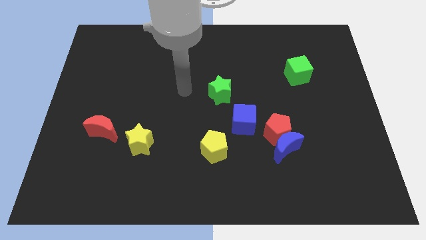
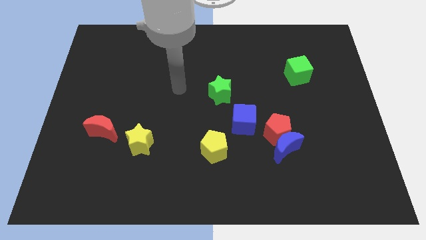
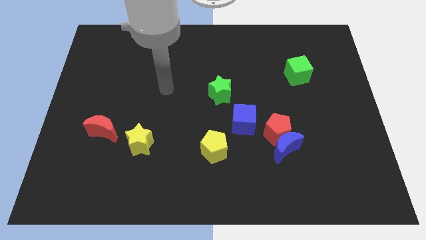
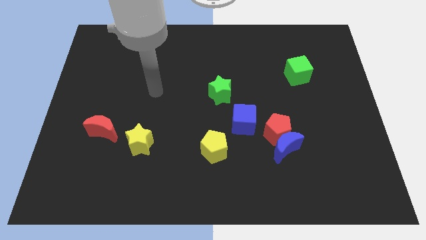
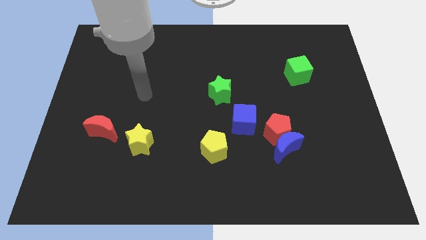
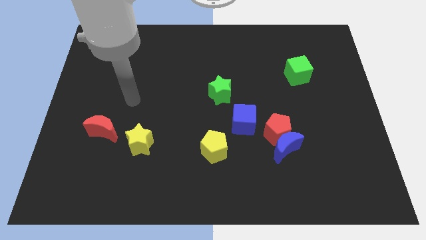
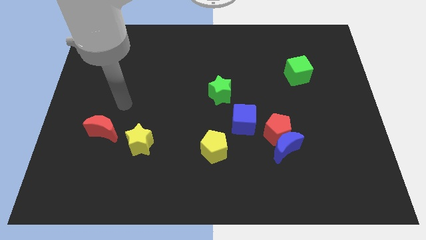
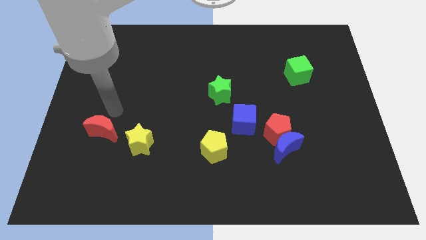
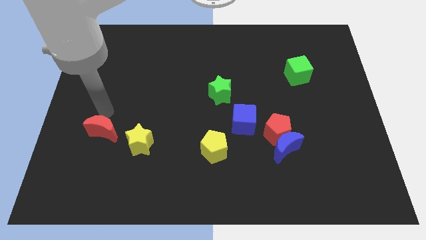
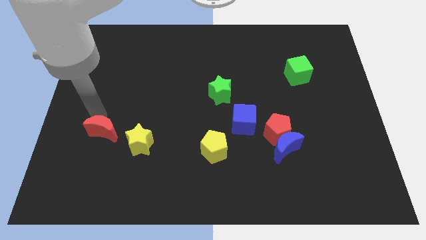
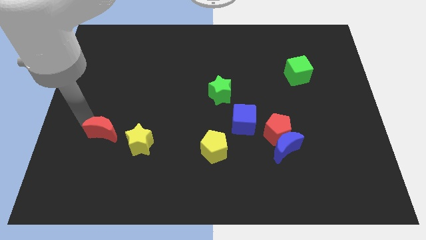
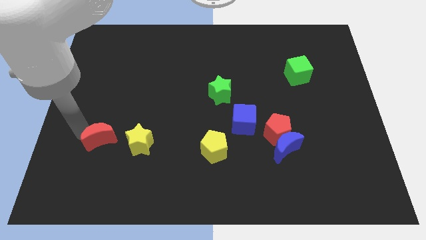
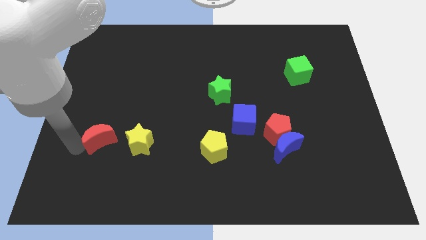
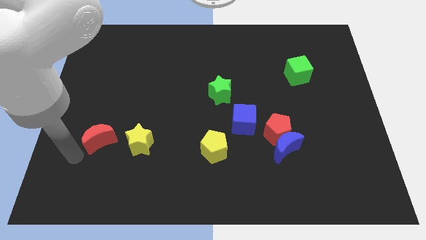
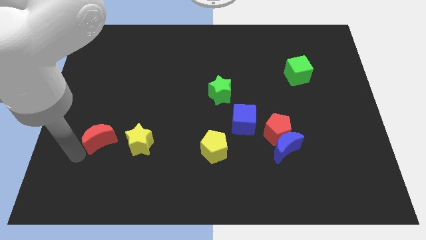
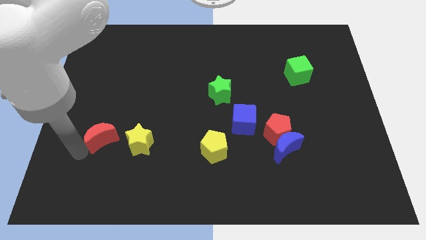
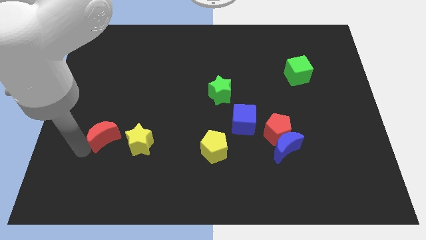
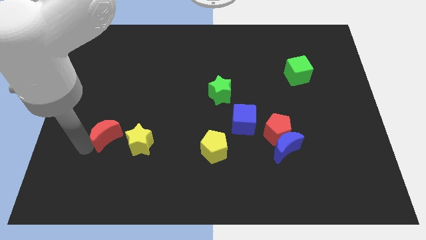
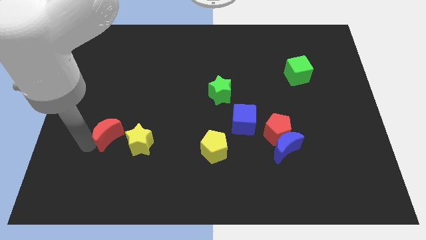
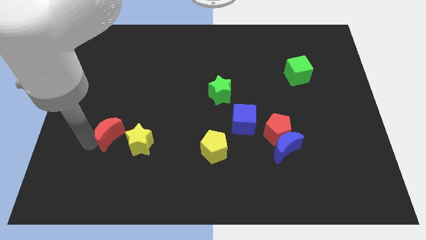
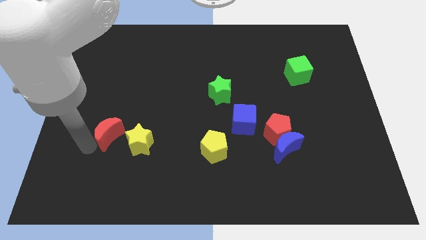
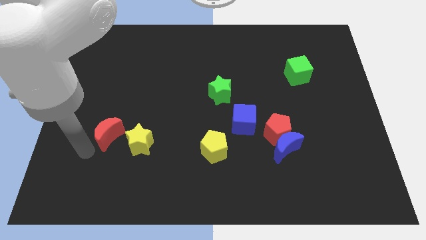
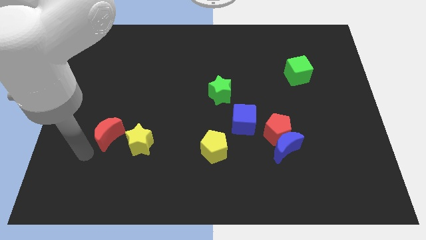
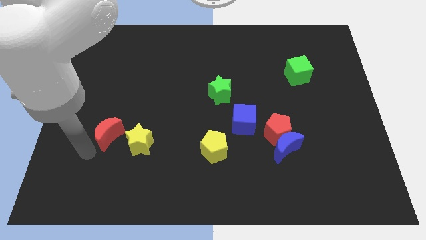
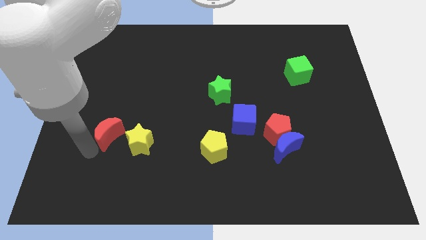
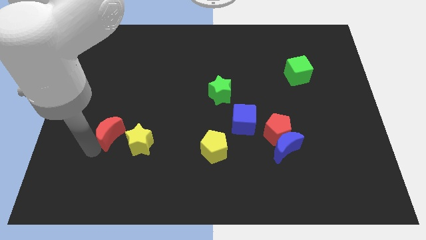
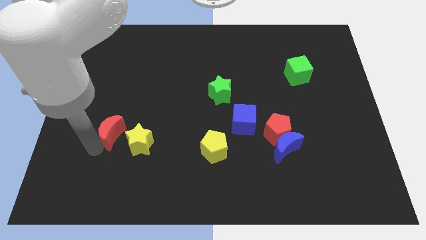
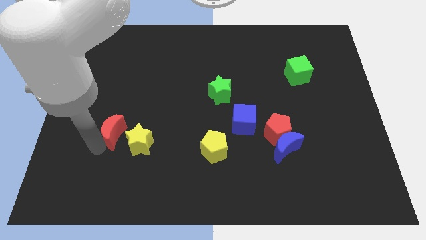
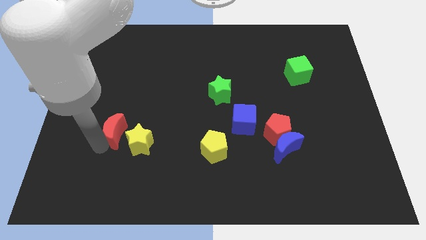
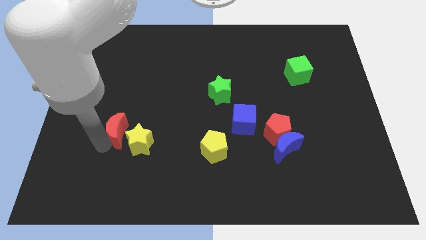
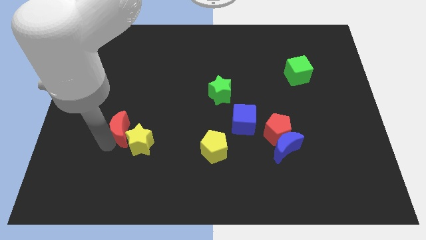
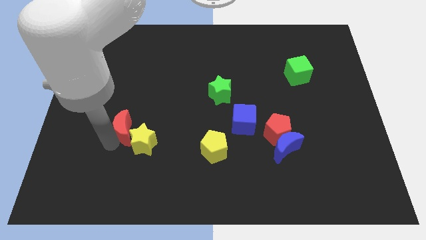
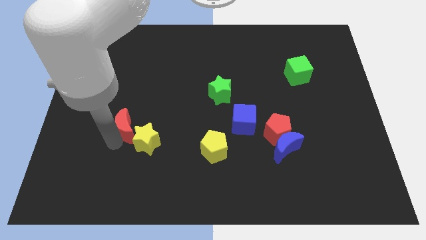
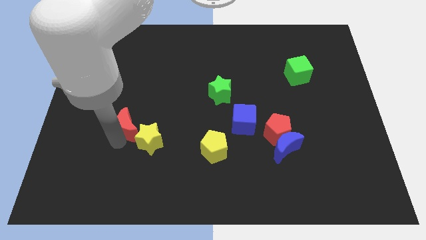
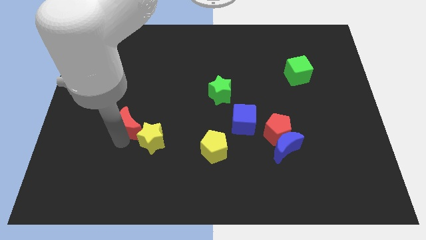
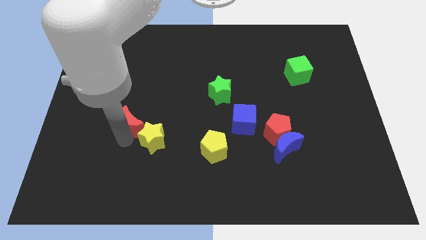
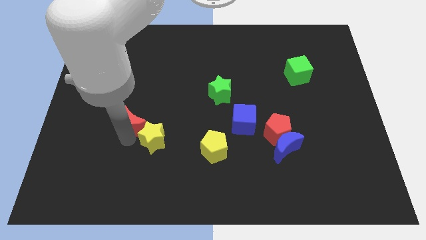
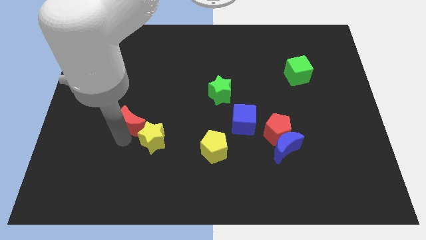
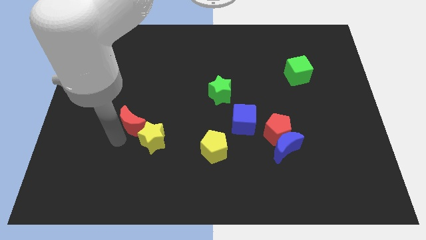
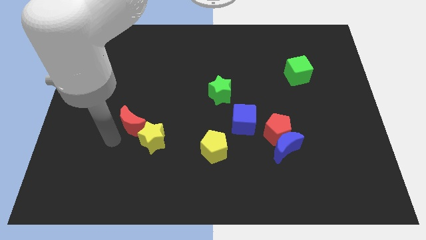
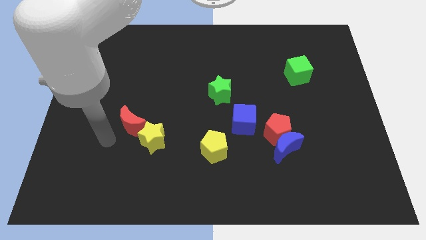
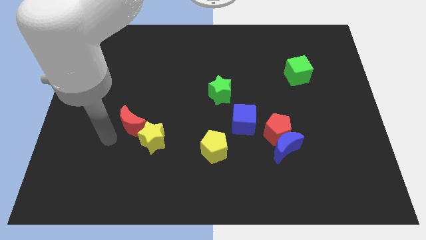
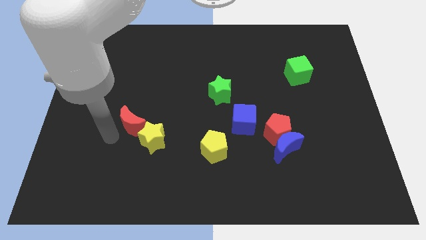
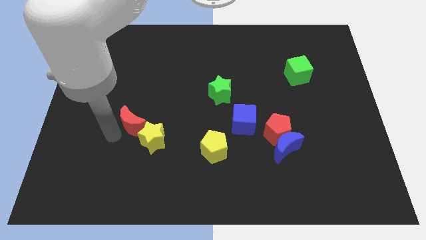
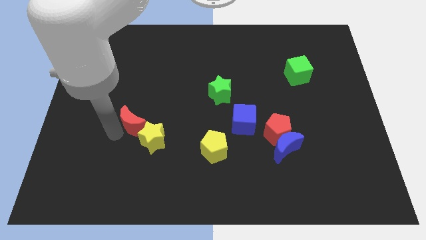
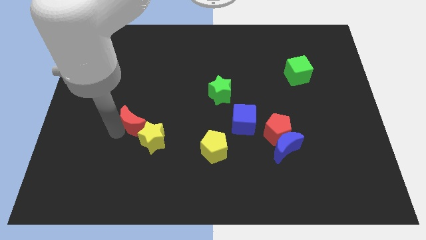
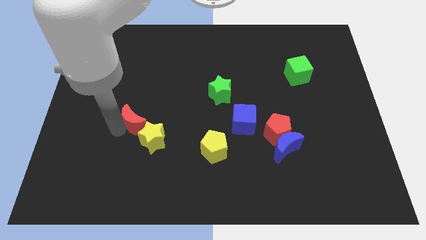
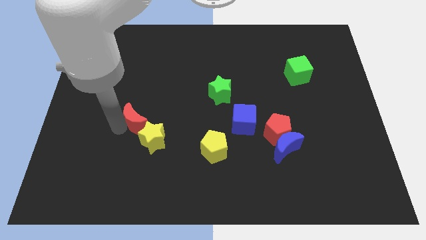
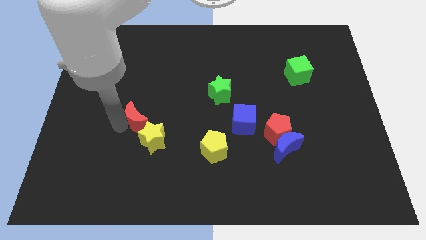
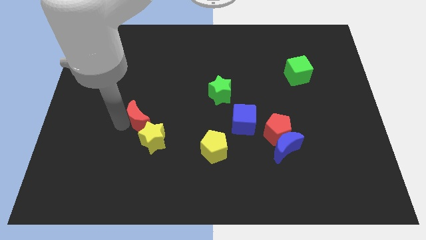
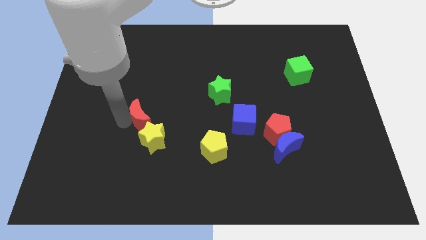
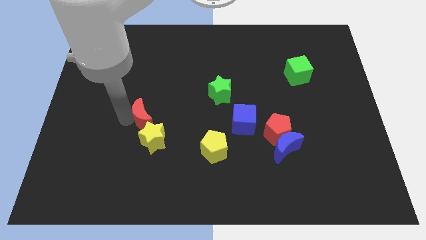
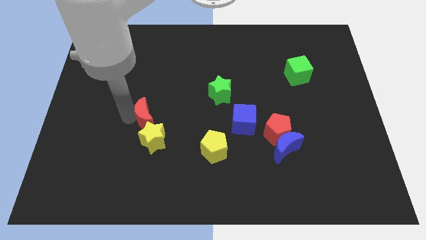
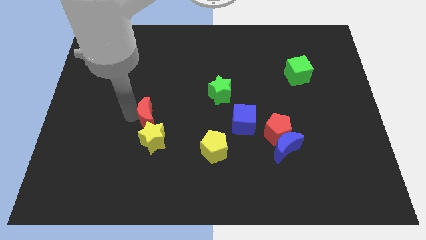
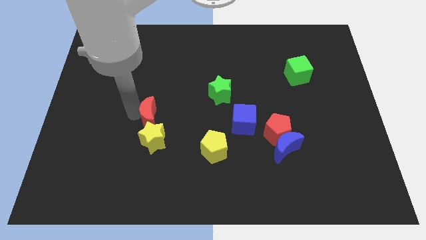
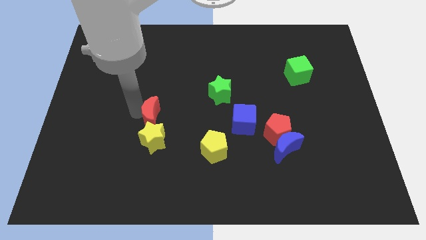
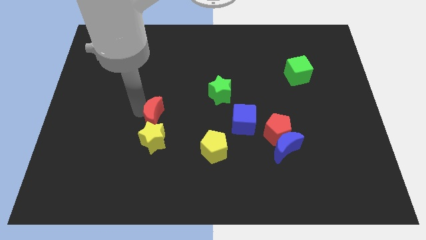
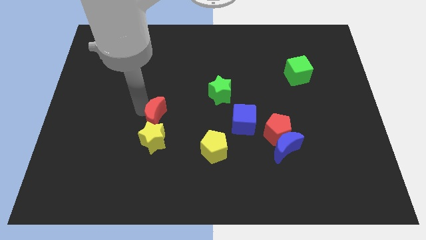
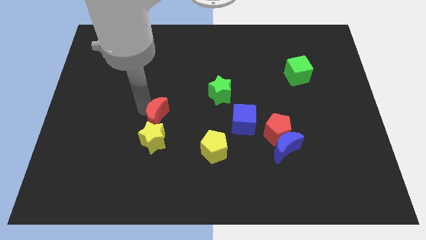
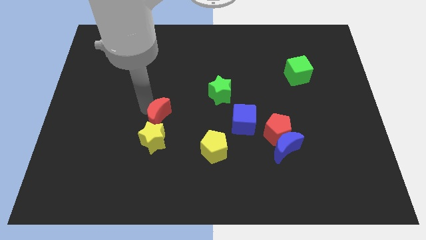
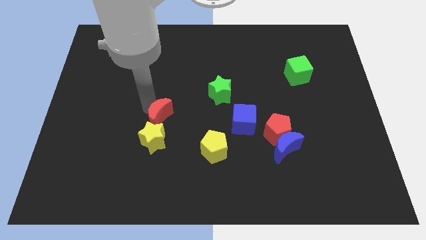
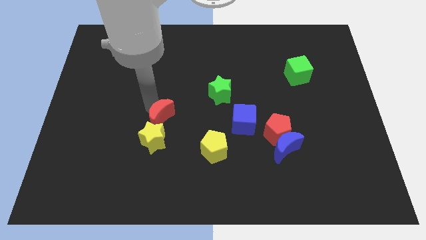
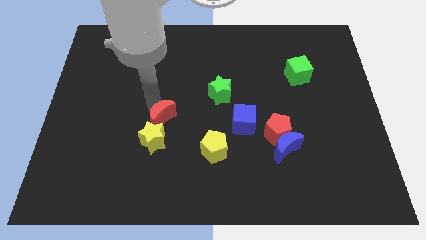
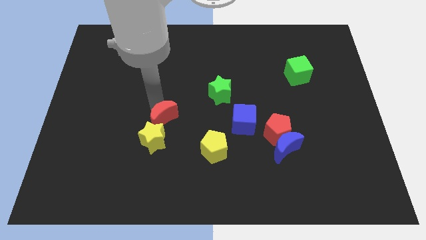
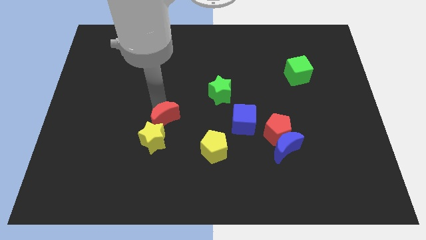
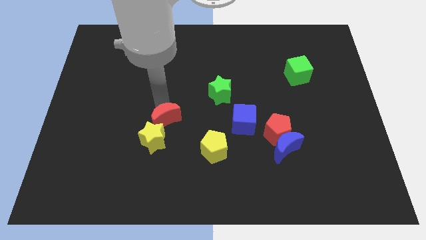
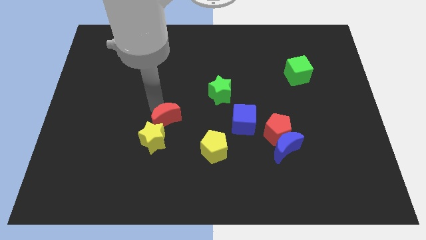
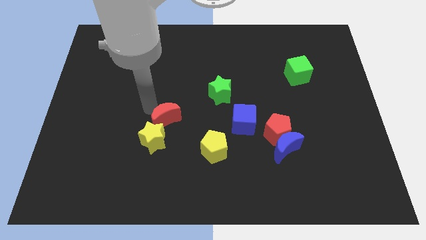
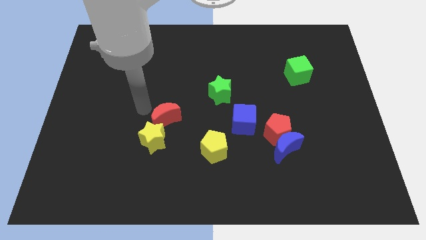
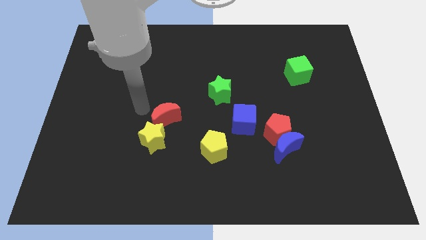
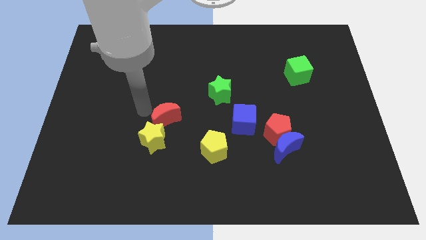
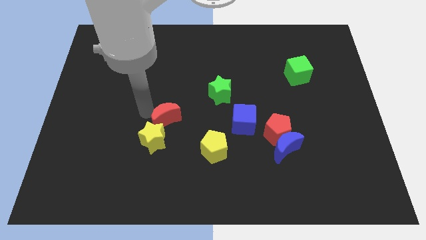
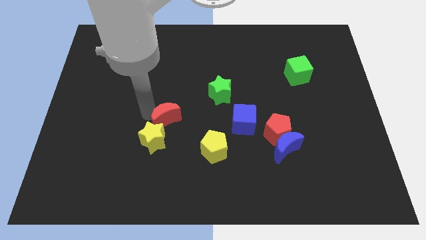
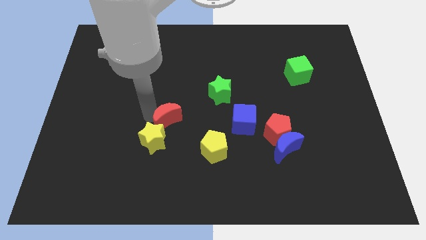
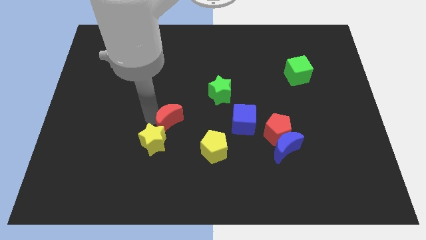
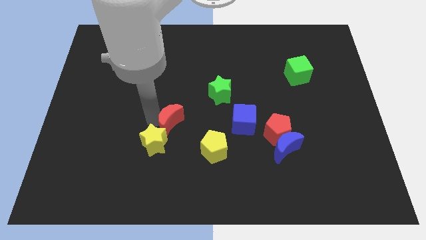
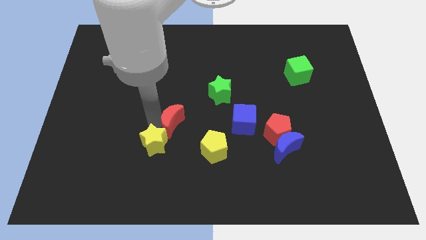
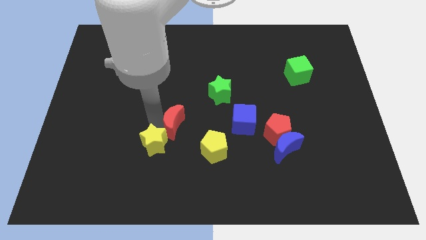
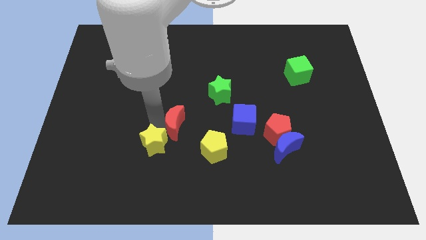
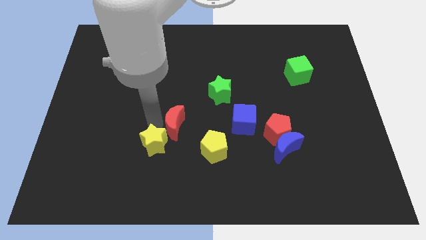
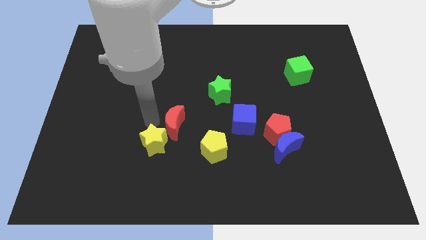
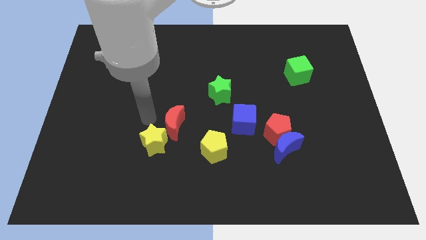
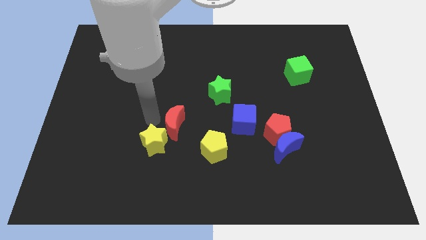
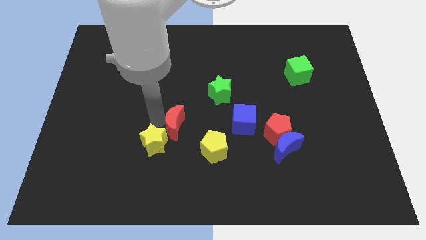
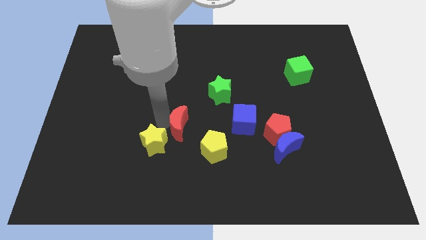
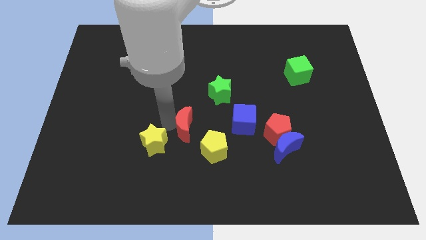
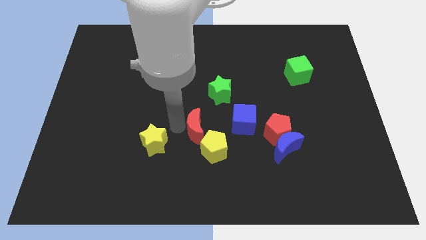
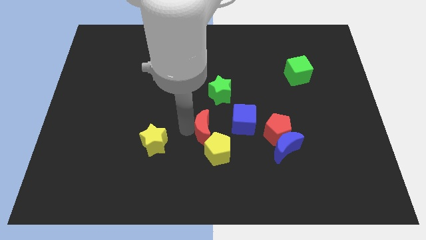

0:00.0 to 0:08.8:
push the red moon to the left of the red pentagon
